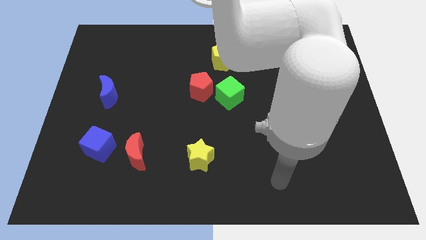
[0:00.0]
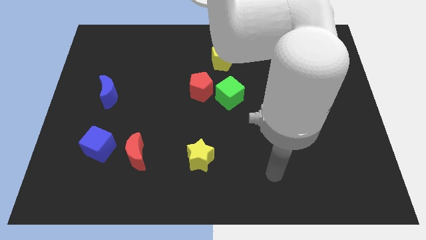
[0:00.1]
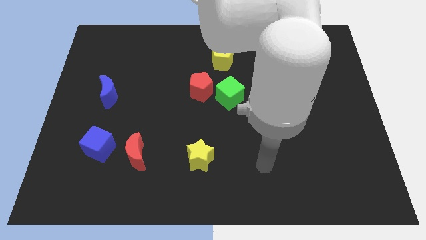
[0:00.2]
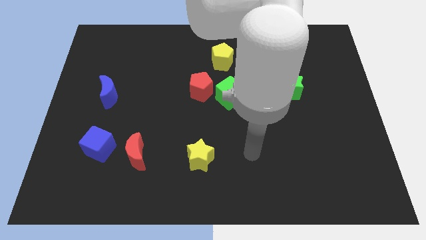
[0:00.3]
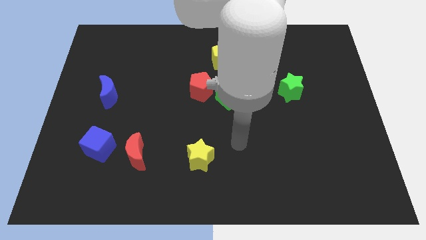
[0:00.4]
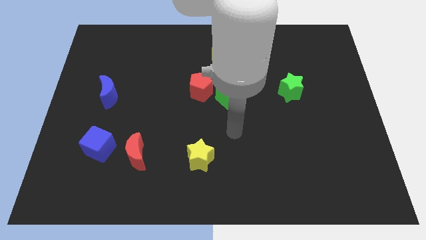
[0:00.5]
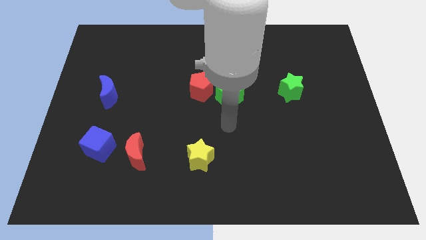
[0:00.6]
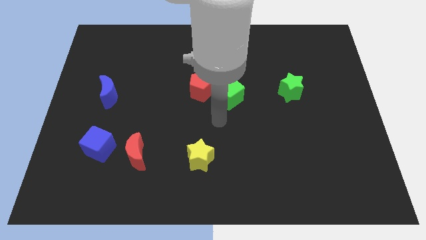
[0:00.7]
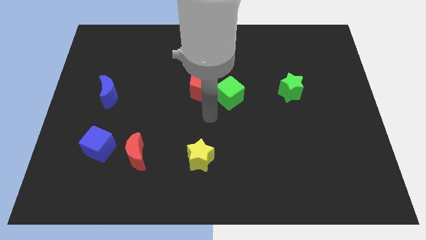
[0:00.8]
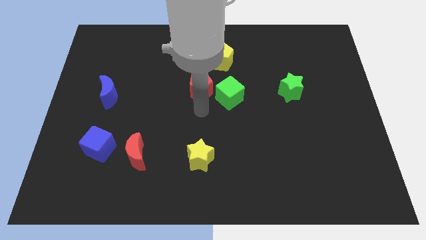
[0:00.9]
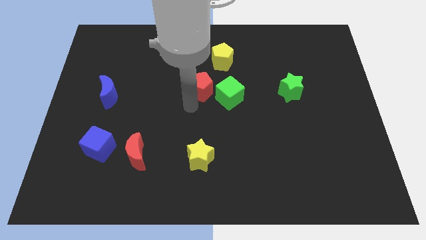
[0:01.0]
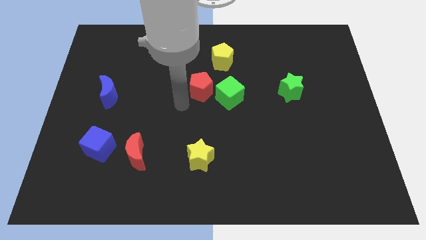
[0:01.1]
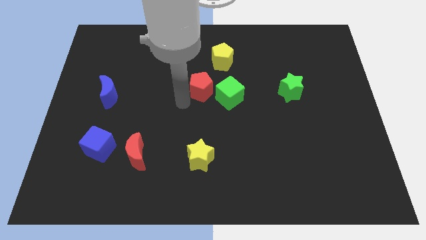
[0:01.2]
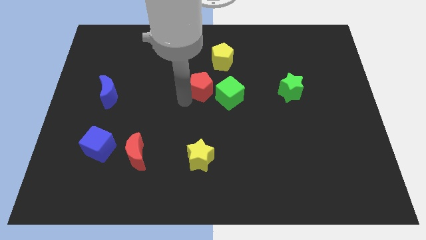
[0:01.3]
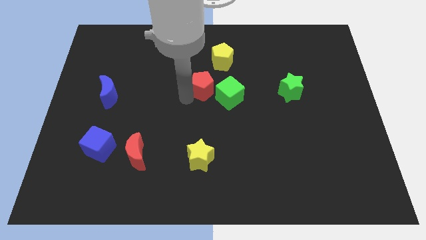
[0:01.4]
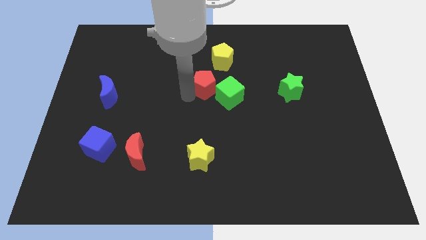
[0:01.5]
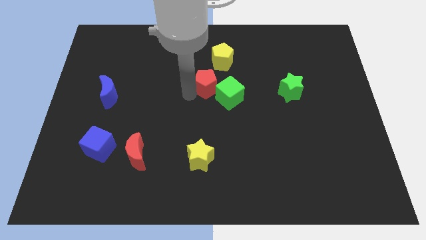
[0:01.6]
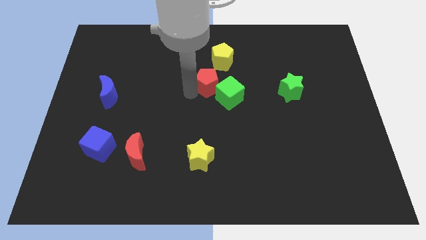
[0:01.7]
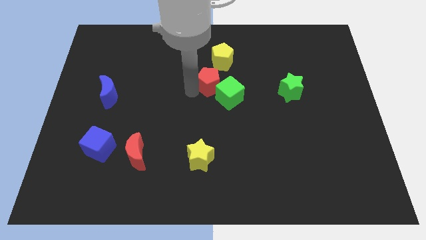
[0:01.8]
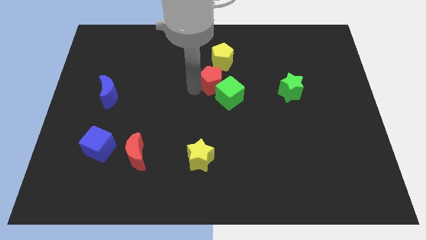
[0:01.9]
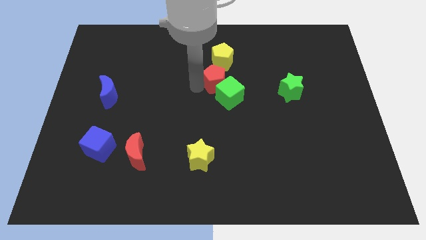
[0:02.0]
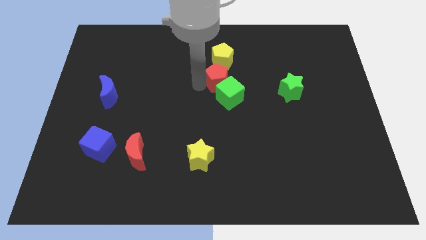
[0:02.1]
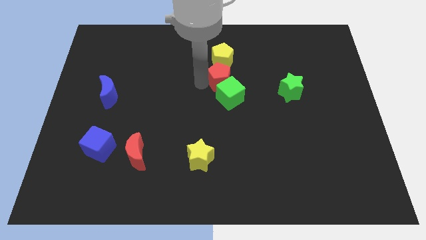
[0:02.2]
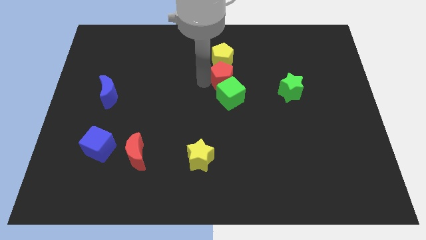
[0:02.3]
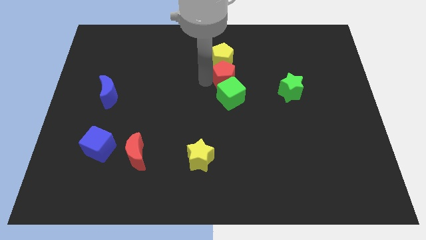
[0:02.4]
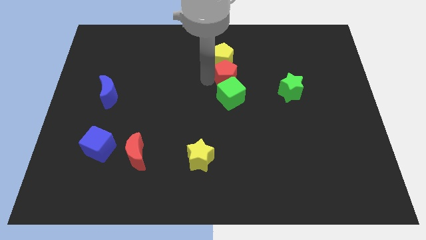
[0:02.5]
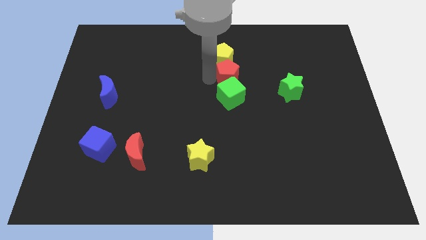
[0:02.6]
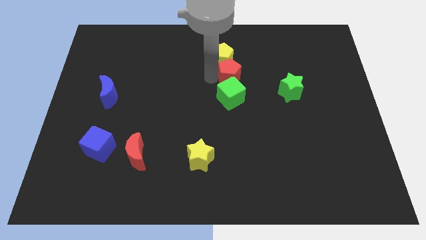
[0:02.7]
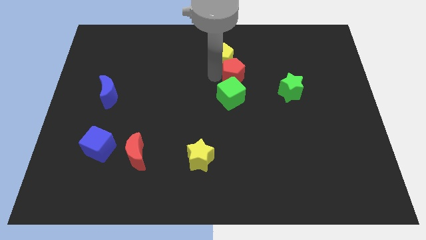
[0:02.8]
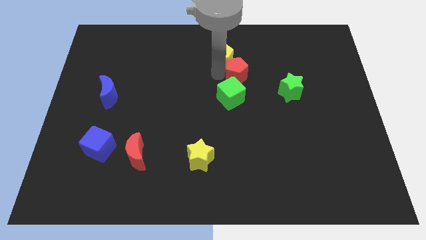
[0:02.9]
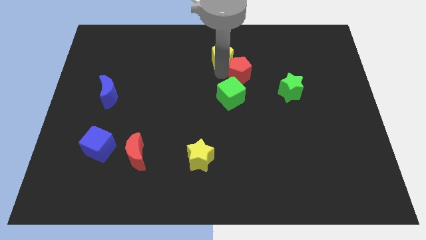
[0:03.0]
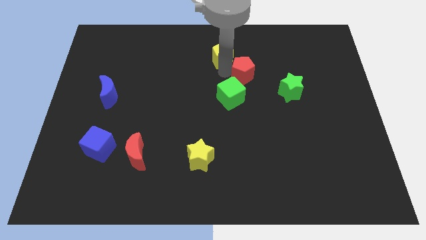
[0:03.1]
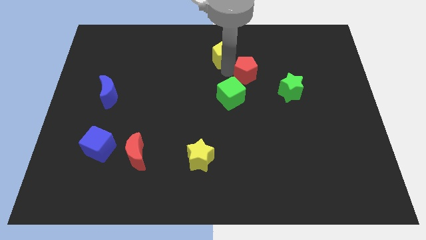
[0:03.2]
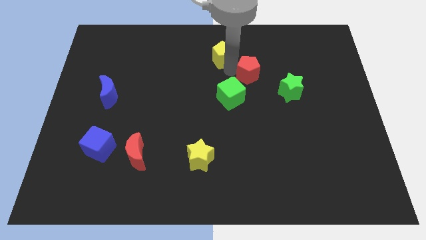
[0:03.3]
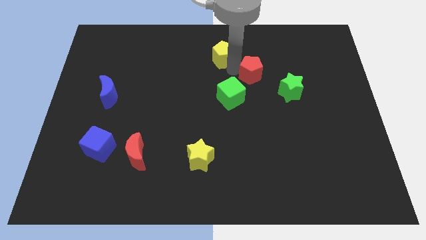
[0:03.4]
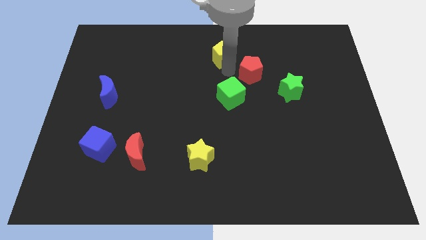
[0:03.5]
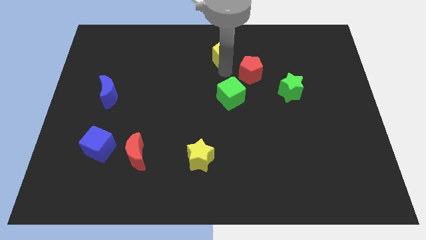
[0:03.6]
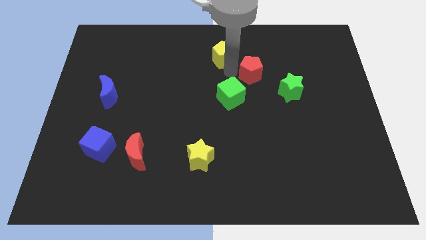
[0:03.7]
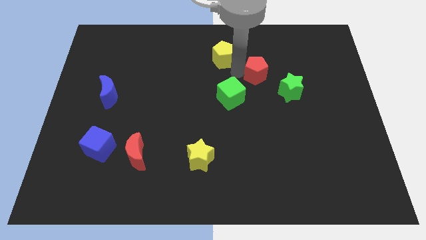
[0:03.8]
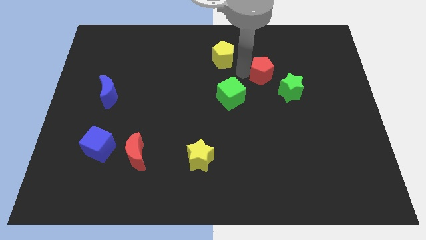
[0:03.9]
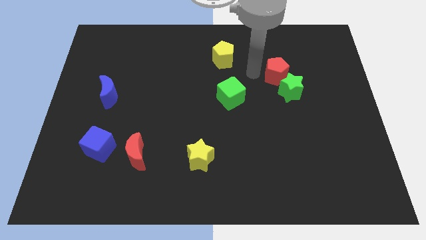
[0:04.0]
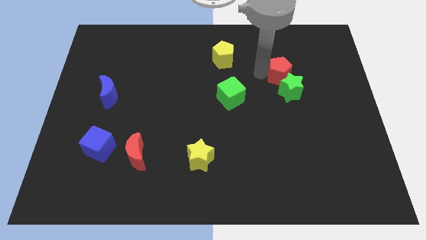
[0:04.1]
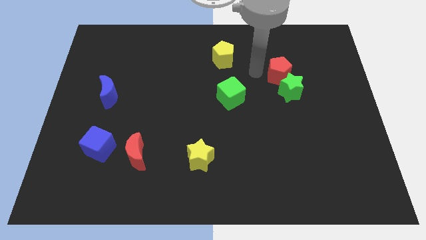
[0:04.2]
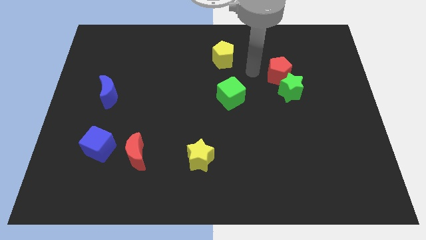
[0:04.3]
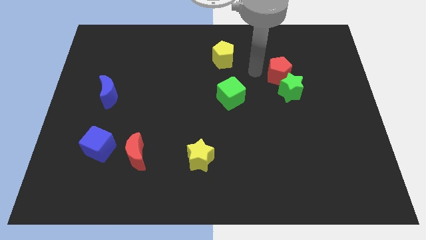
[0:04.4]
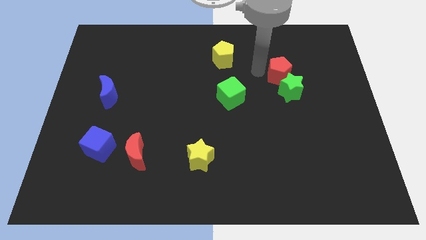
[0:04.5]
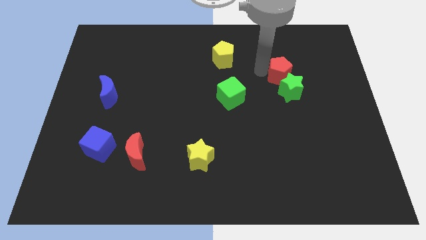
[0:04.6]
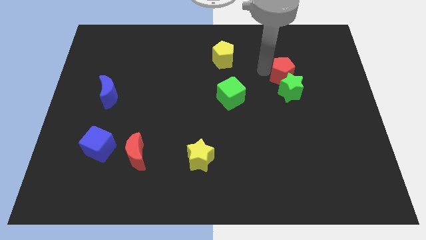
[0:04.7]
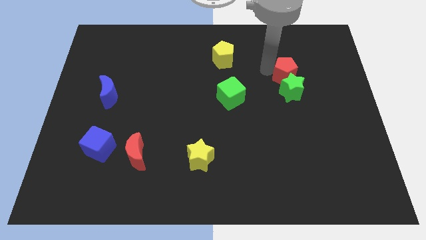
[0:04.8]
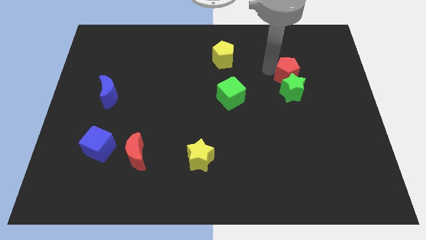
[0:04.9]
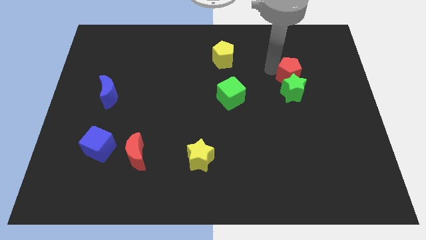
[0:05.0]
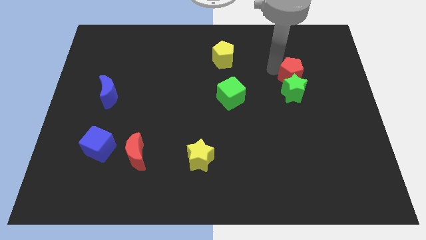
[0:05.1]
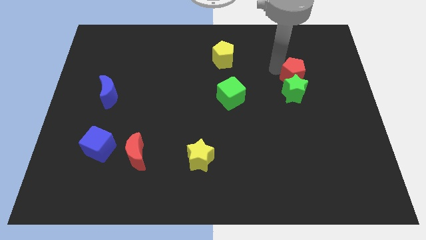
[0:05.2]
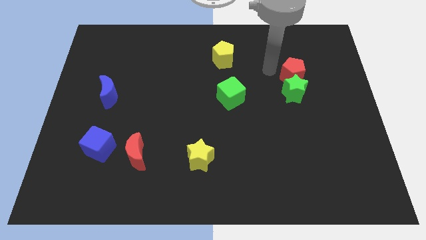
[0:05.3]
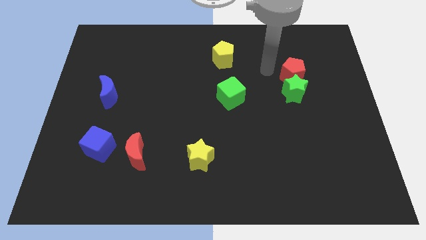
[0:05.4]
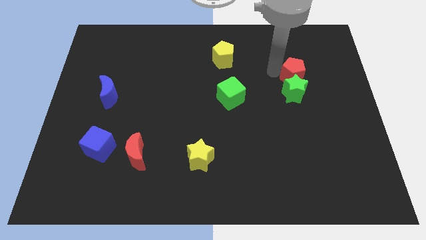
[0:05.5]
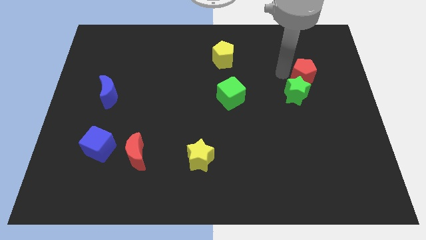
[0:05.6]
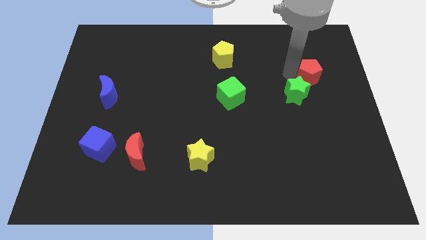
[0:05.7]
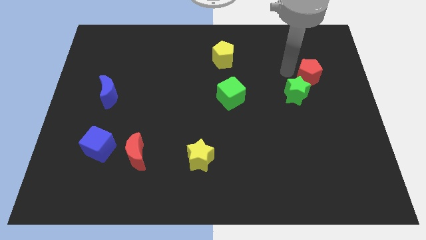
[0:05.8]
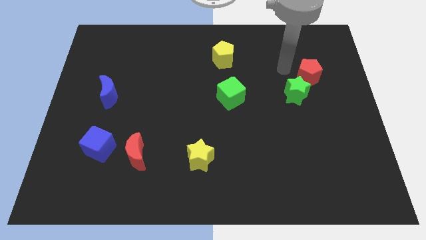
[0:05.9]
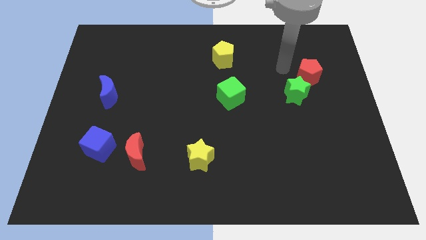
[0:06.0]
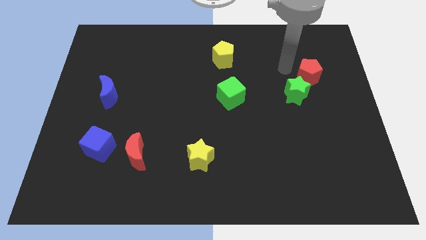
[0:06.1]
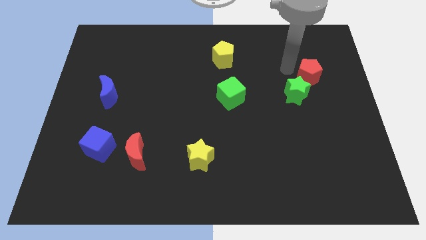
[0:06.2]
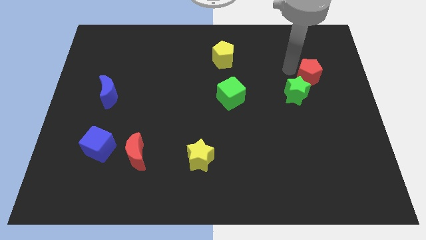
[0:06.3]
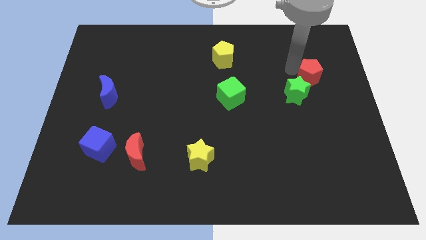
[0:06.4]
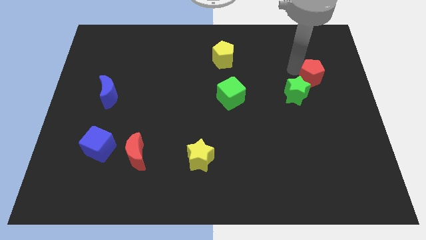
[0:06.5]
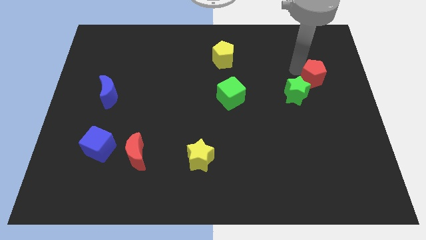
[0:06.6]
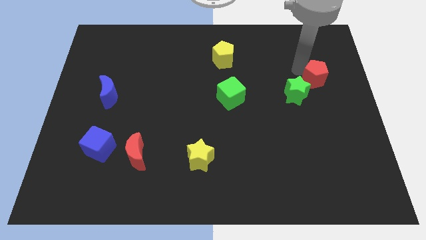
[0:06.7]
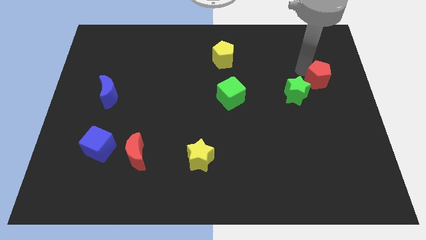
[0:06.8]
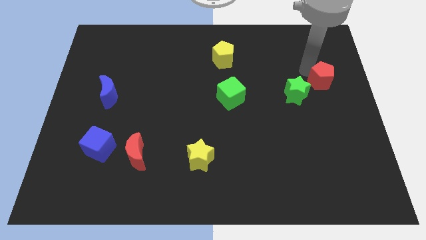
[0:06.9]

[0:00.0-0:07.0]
push the red pentagon to the right side of the board
